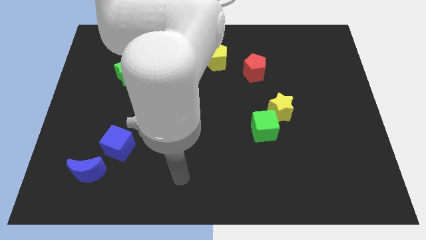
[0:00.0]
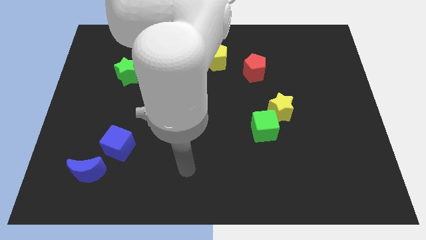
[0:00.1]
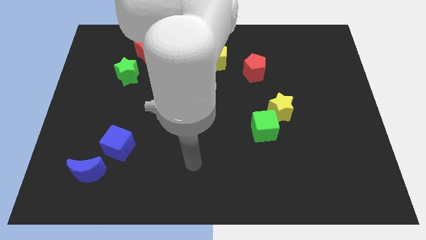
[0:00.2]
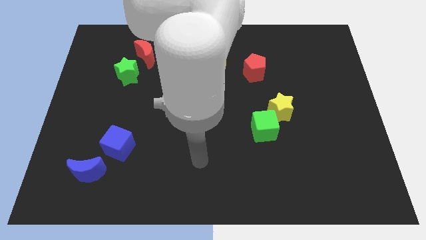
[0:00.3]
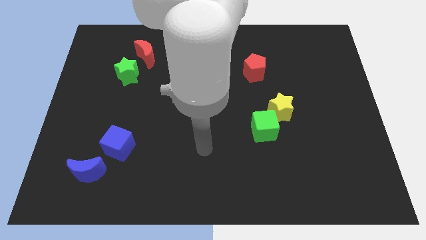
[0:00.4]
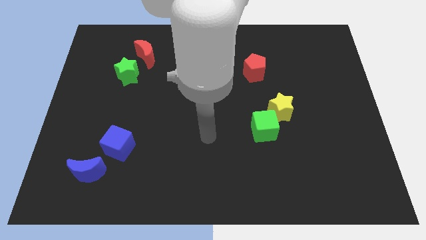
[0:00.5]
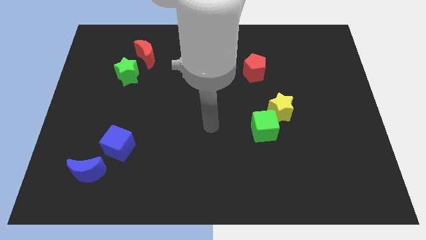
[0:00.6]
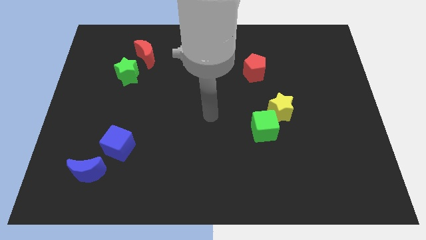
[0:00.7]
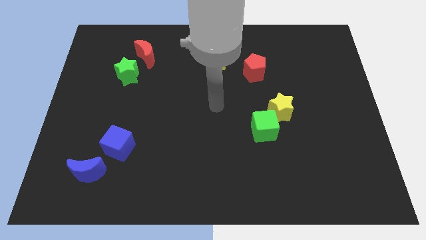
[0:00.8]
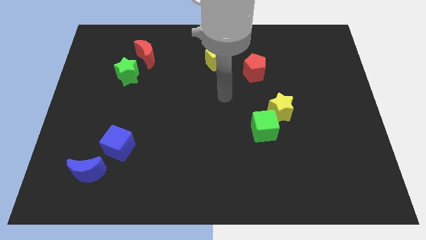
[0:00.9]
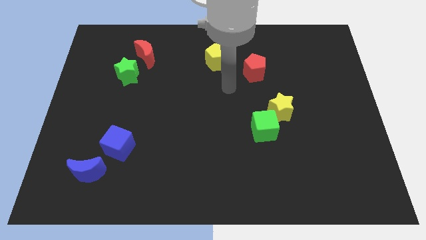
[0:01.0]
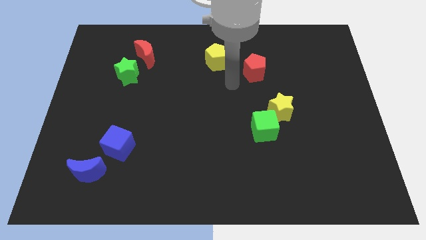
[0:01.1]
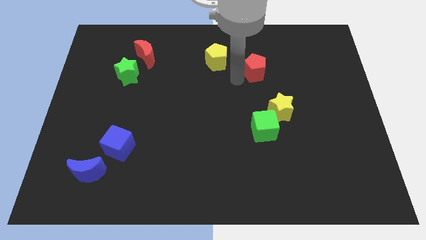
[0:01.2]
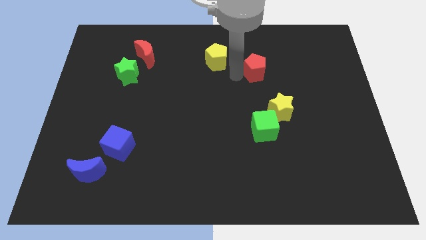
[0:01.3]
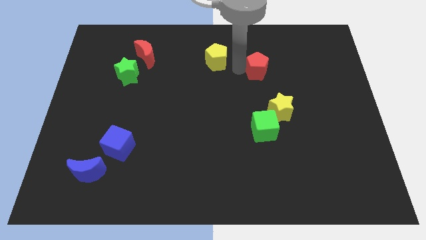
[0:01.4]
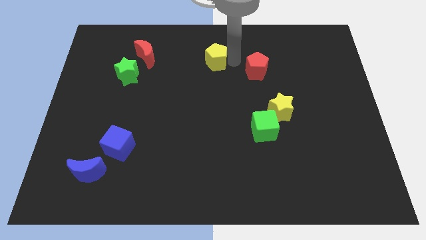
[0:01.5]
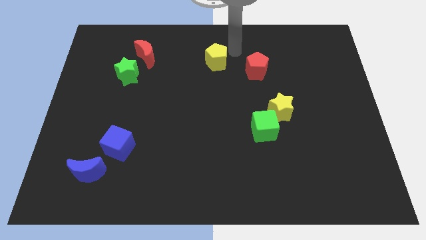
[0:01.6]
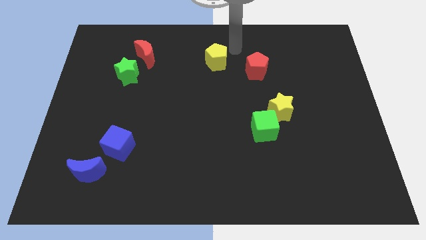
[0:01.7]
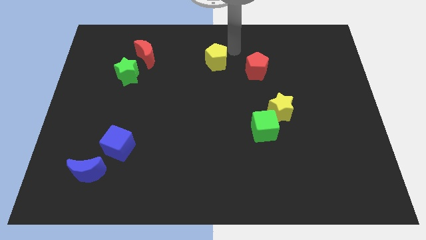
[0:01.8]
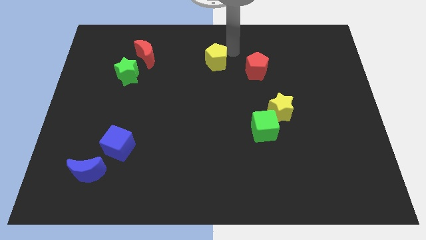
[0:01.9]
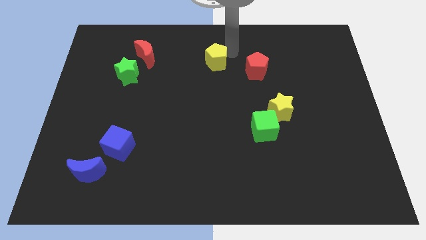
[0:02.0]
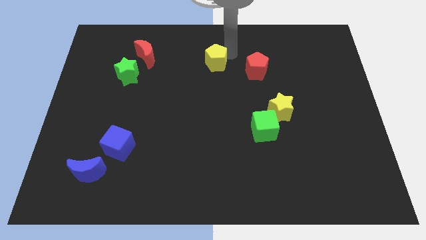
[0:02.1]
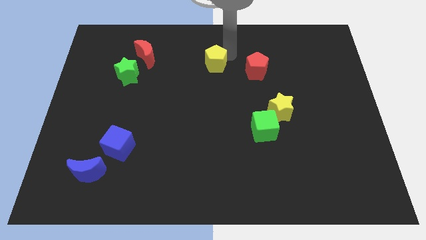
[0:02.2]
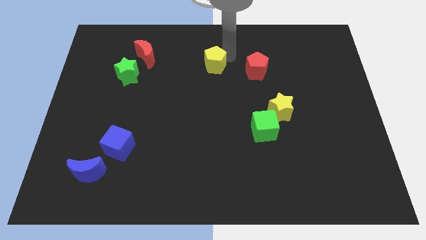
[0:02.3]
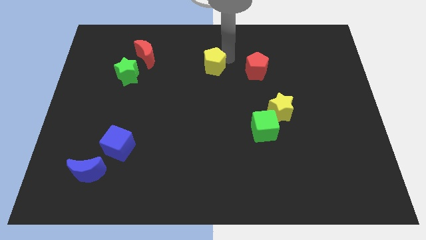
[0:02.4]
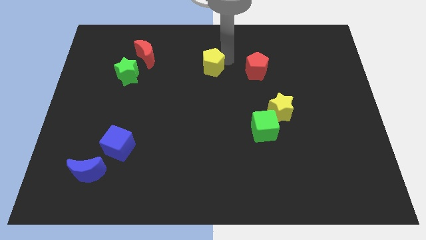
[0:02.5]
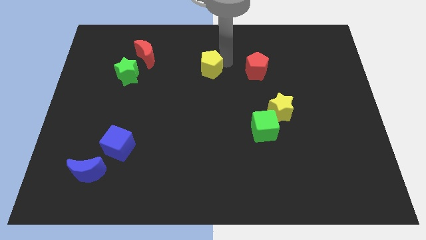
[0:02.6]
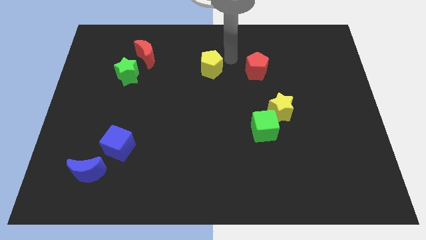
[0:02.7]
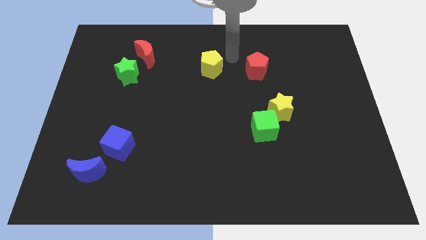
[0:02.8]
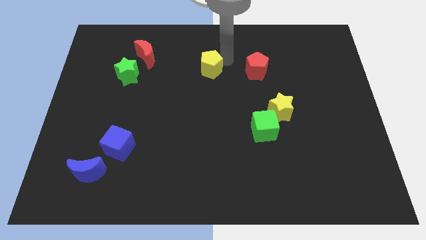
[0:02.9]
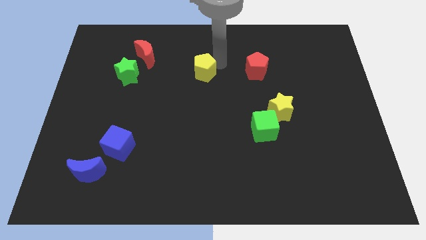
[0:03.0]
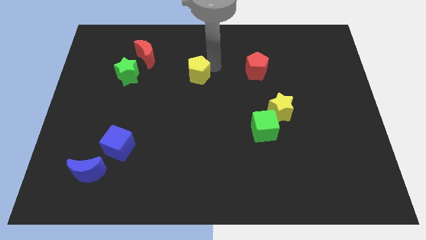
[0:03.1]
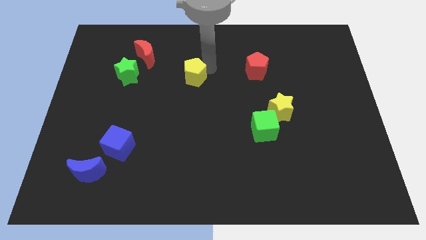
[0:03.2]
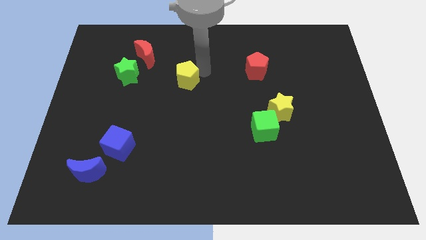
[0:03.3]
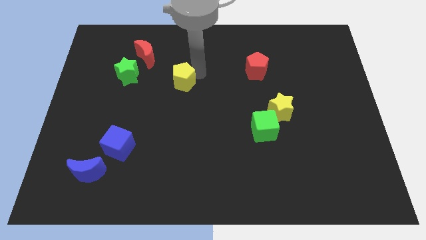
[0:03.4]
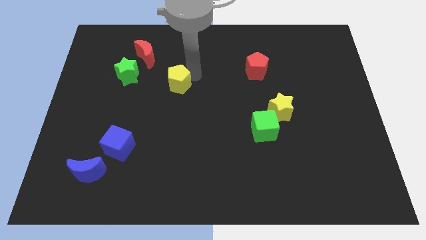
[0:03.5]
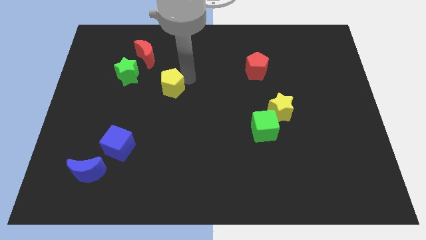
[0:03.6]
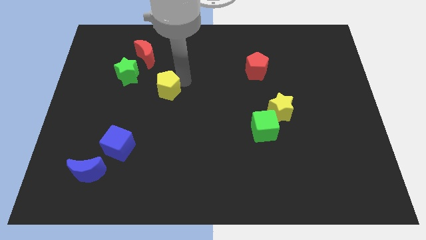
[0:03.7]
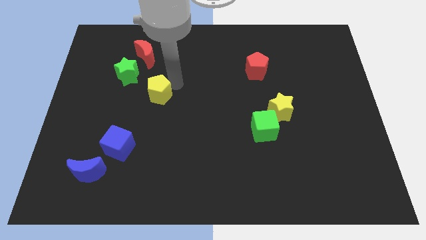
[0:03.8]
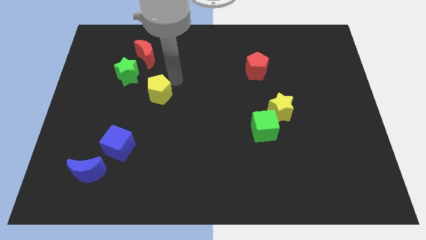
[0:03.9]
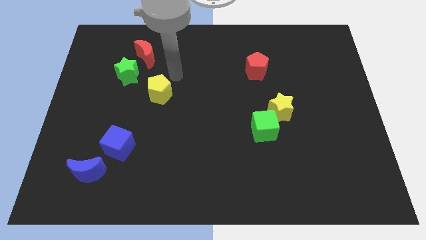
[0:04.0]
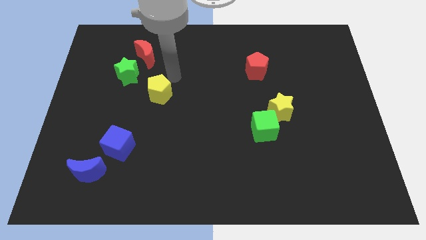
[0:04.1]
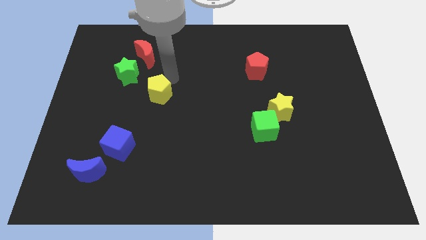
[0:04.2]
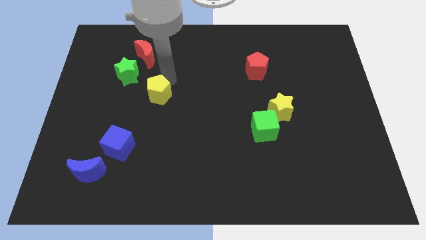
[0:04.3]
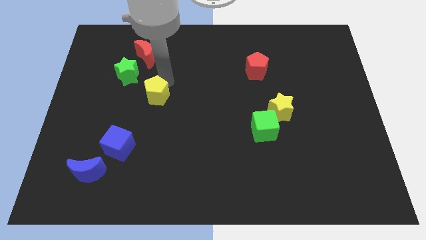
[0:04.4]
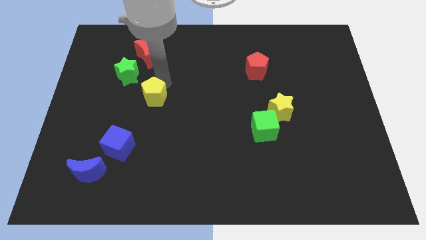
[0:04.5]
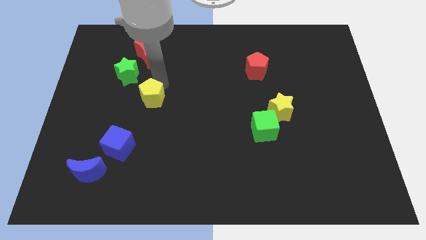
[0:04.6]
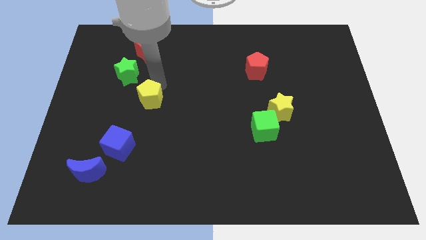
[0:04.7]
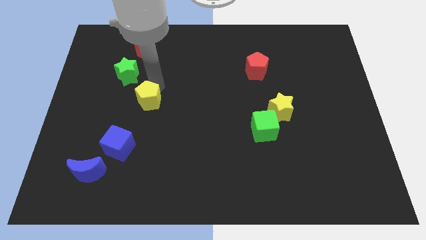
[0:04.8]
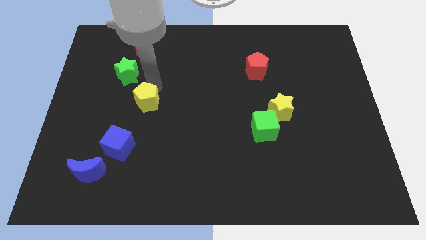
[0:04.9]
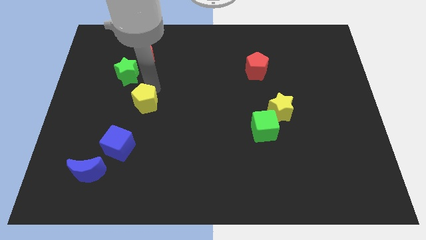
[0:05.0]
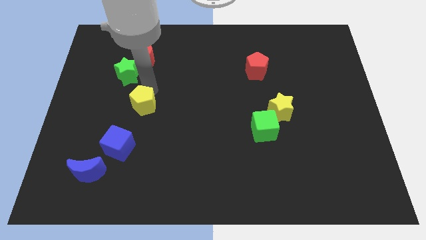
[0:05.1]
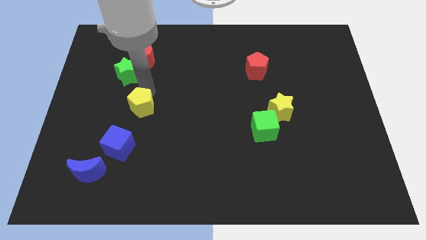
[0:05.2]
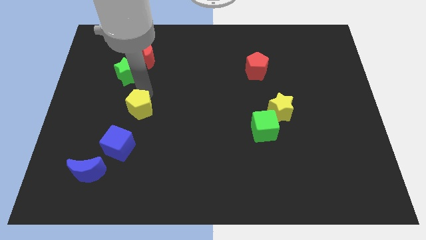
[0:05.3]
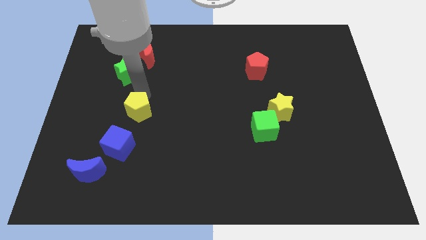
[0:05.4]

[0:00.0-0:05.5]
move the yellow pentagon diagonally up and to the right of the blue cube

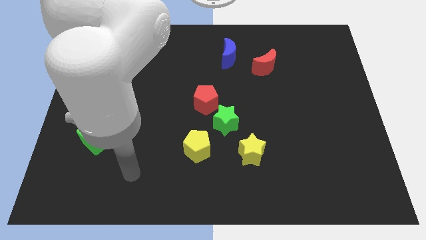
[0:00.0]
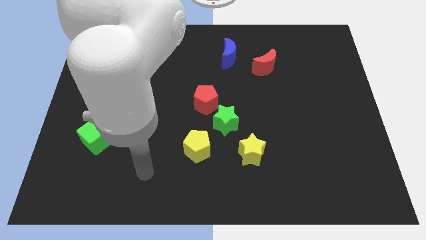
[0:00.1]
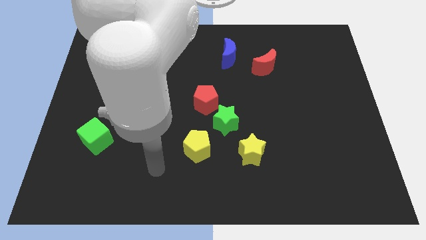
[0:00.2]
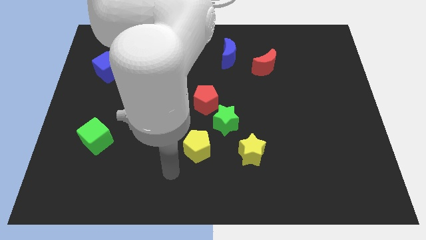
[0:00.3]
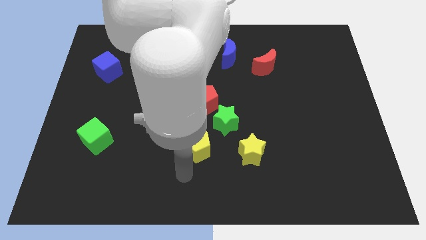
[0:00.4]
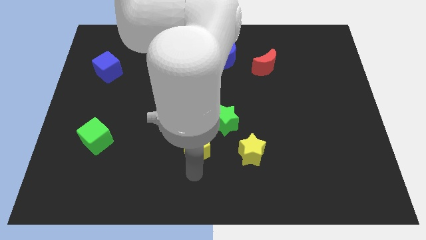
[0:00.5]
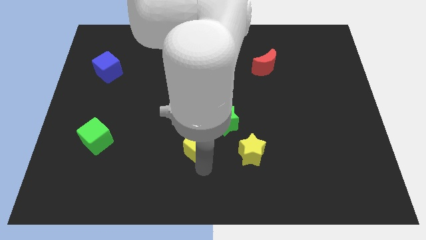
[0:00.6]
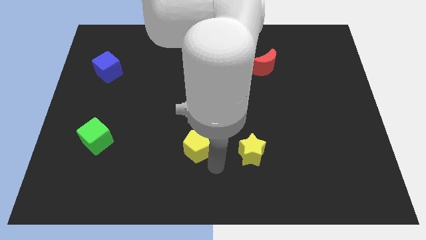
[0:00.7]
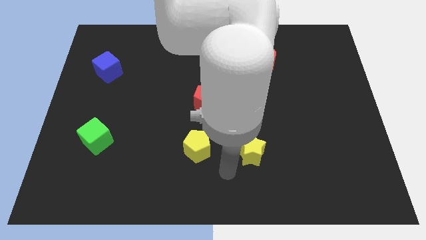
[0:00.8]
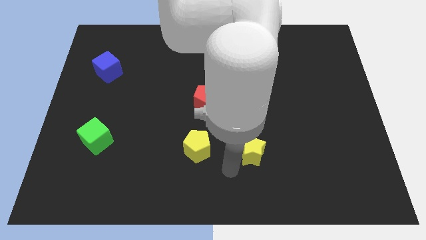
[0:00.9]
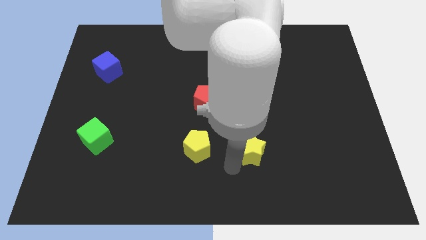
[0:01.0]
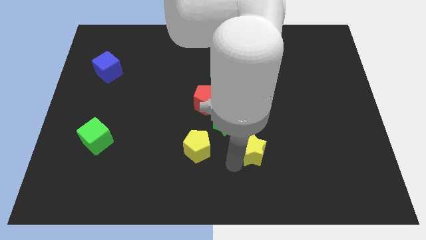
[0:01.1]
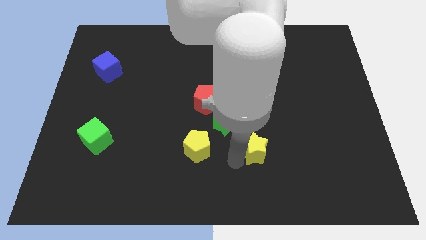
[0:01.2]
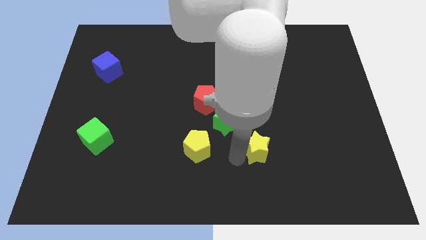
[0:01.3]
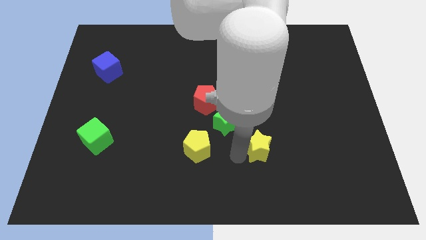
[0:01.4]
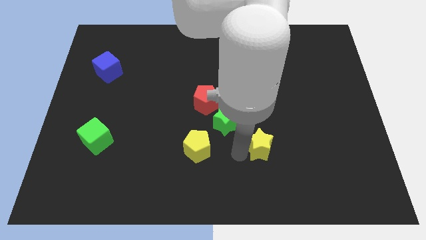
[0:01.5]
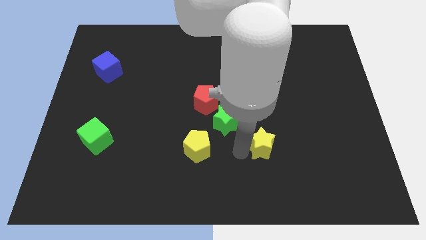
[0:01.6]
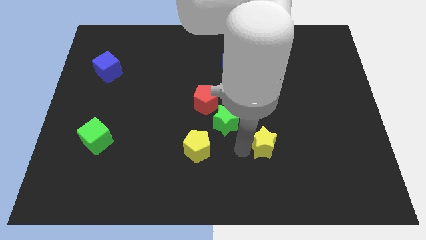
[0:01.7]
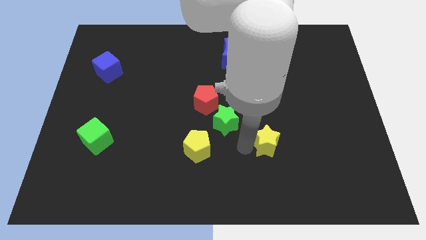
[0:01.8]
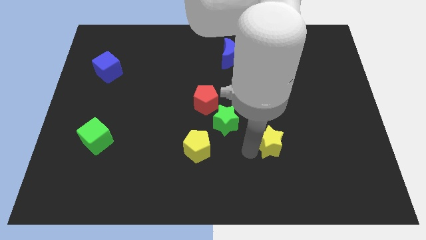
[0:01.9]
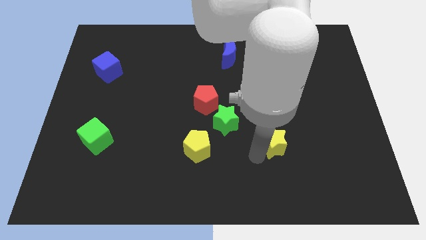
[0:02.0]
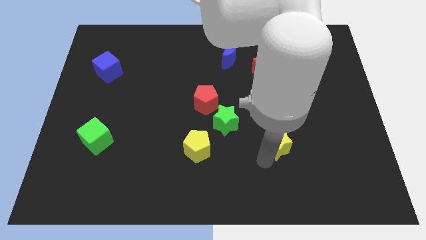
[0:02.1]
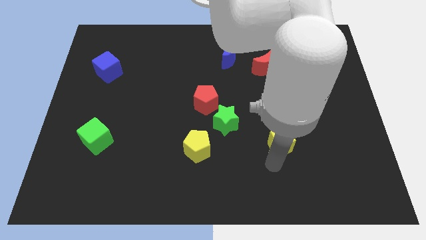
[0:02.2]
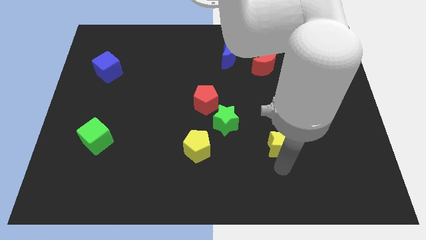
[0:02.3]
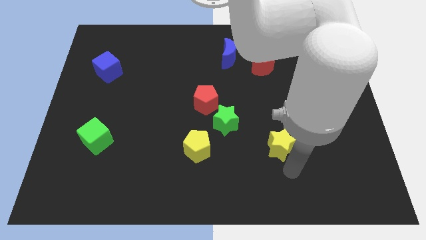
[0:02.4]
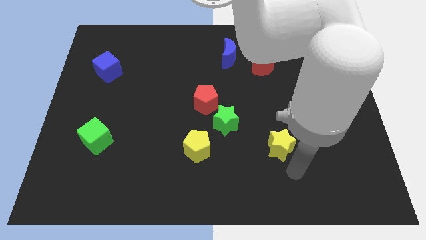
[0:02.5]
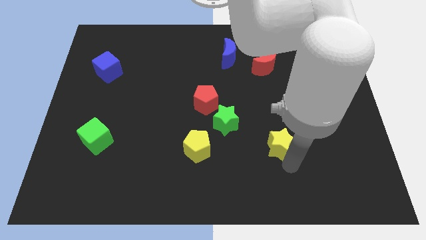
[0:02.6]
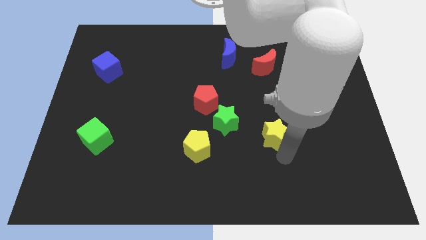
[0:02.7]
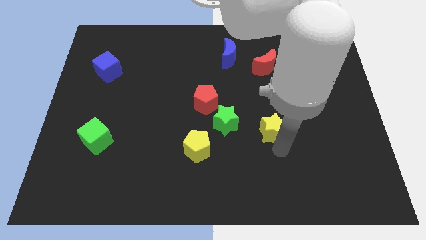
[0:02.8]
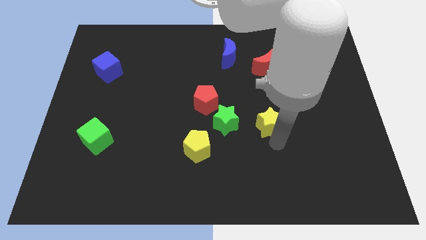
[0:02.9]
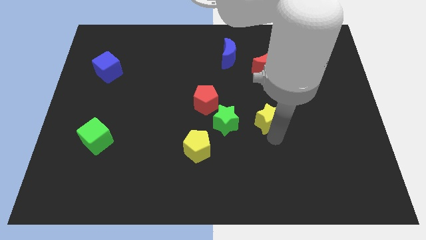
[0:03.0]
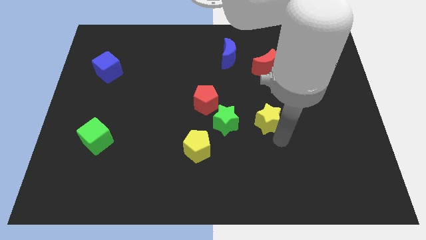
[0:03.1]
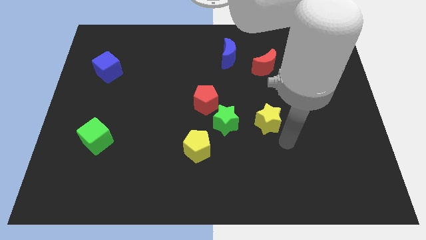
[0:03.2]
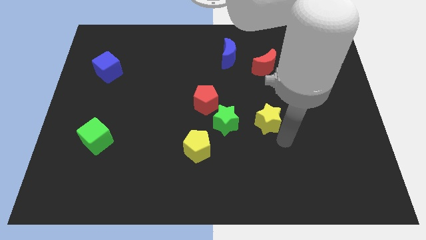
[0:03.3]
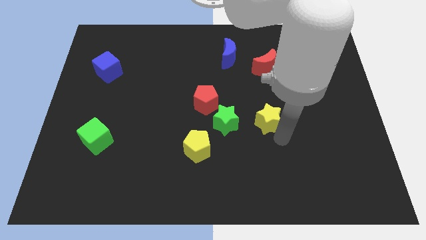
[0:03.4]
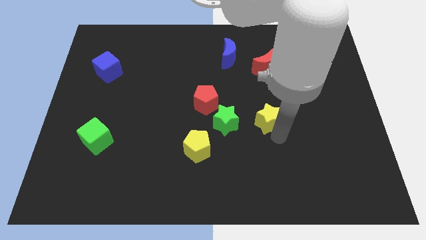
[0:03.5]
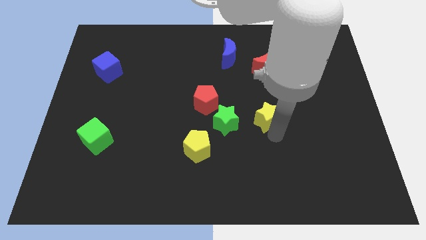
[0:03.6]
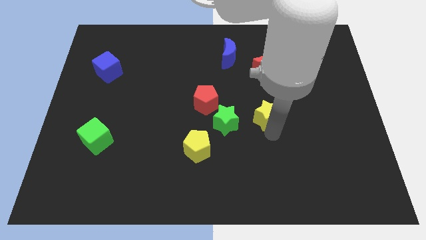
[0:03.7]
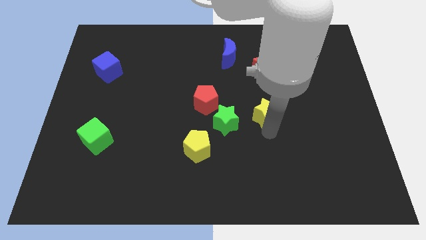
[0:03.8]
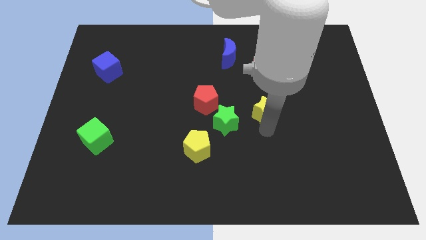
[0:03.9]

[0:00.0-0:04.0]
put the yellow star to the top right side of the green star
